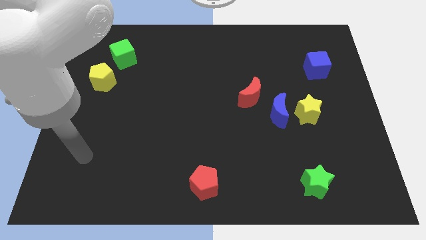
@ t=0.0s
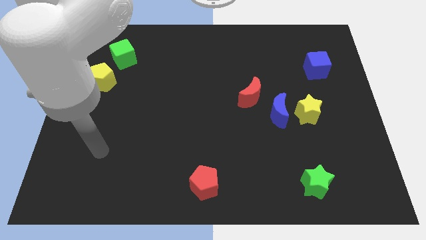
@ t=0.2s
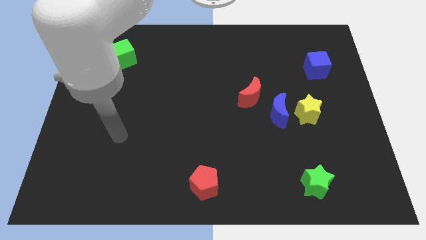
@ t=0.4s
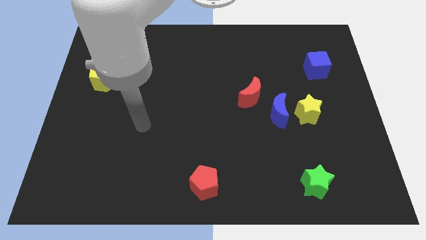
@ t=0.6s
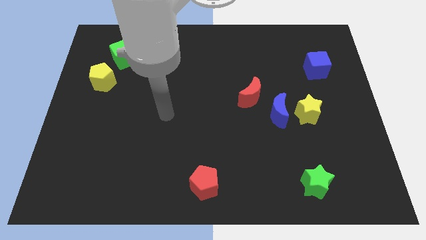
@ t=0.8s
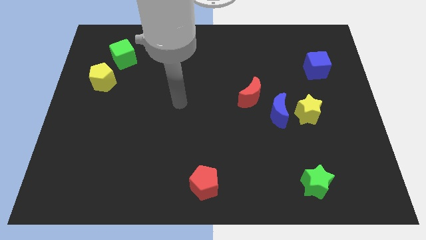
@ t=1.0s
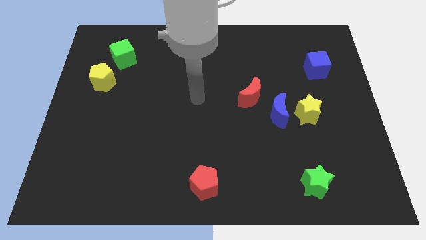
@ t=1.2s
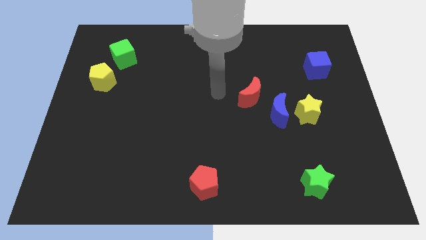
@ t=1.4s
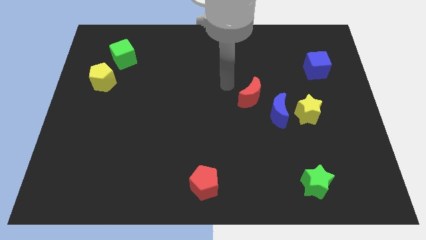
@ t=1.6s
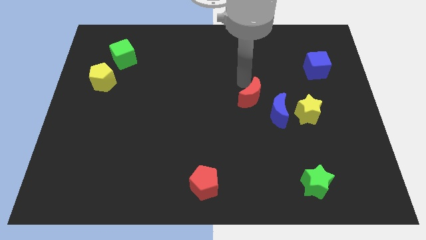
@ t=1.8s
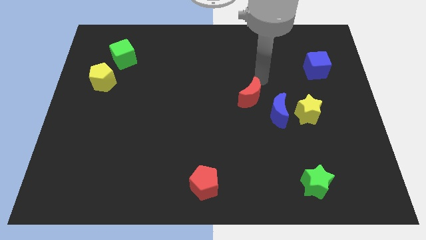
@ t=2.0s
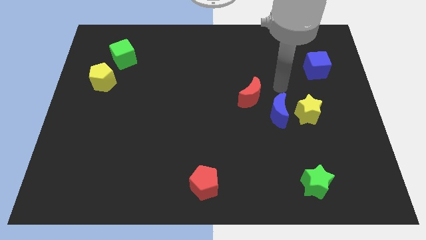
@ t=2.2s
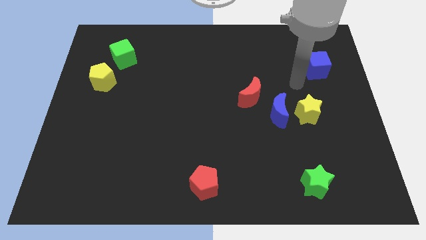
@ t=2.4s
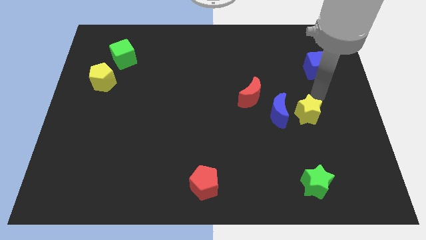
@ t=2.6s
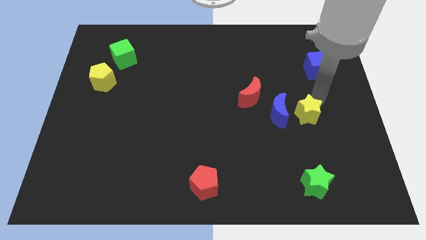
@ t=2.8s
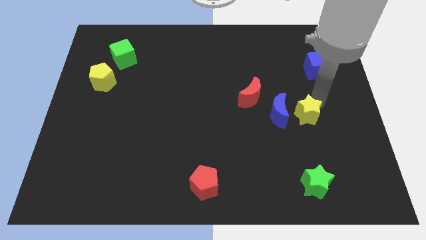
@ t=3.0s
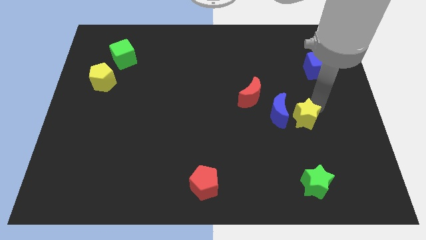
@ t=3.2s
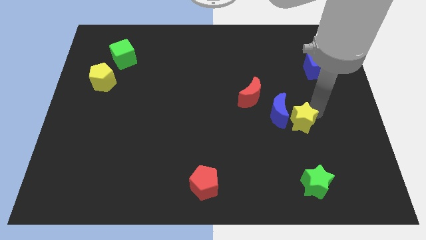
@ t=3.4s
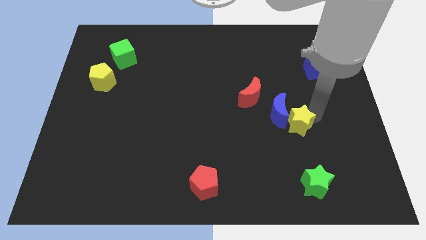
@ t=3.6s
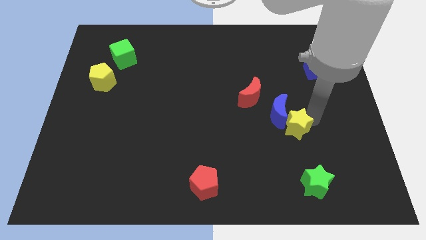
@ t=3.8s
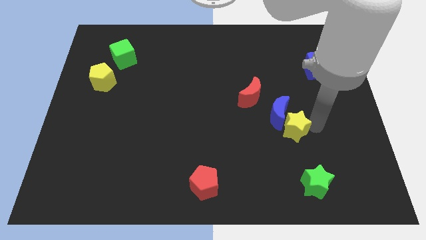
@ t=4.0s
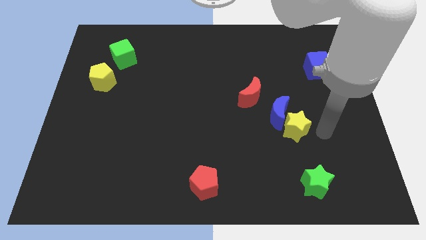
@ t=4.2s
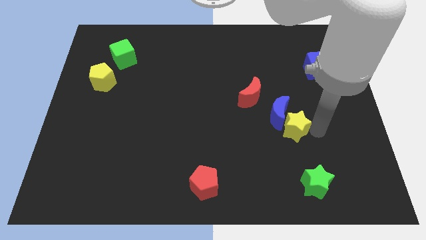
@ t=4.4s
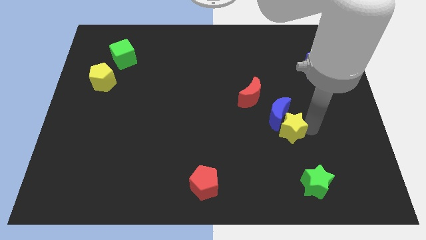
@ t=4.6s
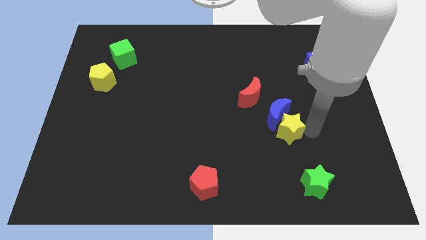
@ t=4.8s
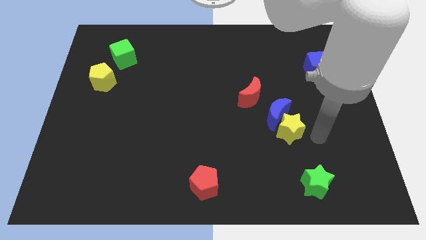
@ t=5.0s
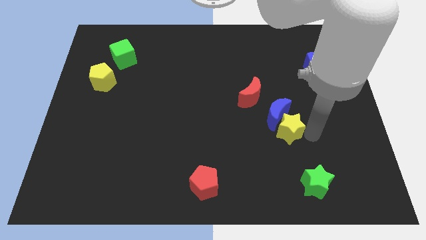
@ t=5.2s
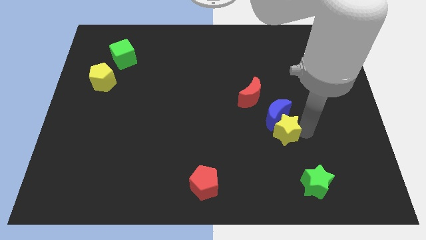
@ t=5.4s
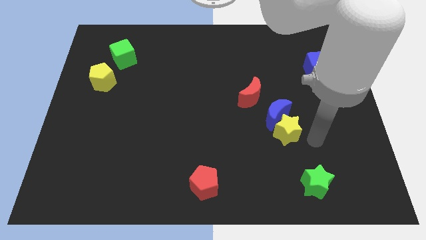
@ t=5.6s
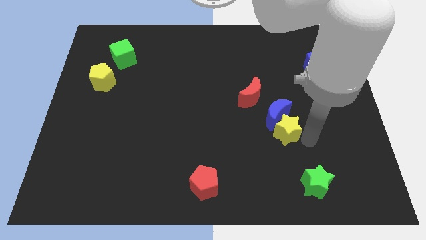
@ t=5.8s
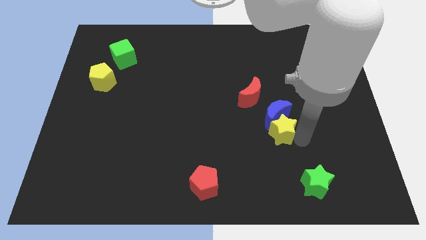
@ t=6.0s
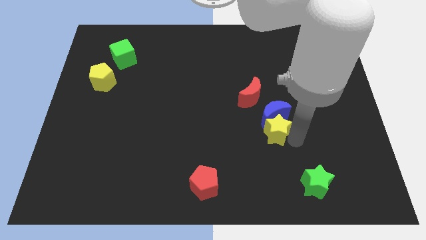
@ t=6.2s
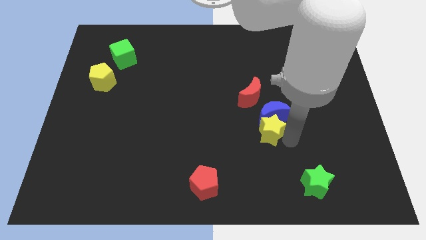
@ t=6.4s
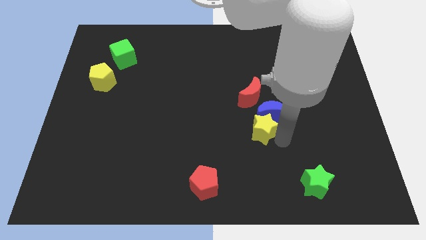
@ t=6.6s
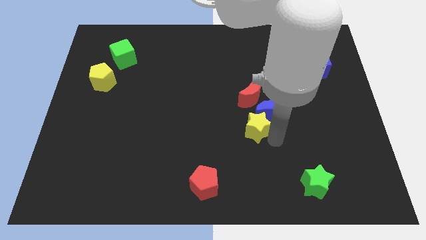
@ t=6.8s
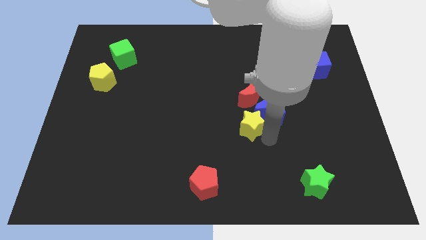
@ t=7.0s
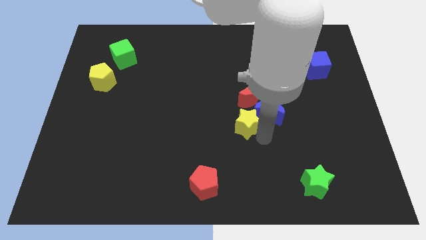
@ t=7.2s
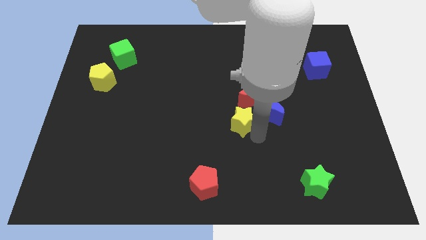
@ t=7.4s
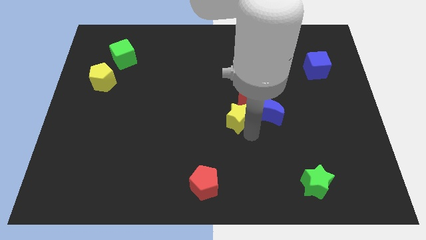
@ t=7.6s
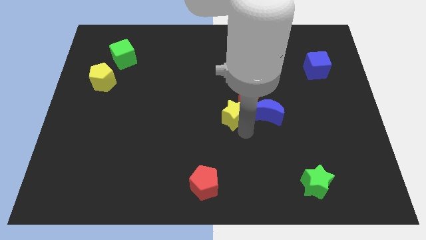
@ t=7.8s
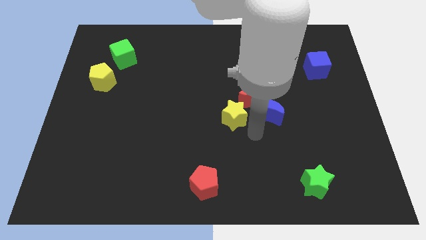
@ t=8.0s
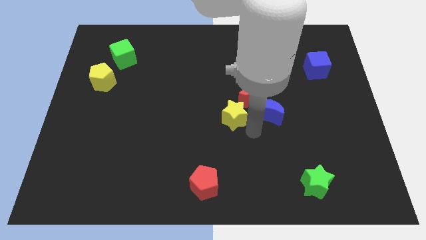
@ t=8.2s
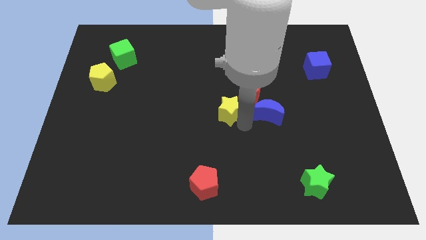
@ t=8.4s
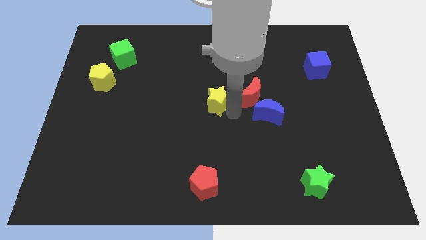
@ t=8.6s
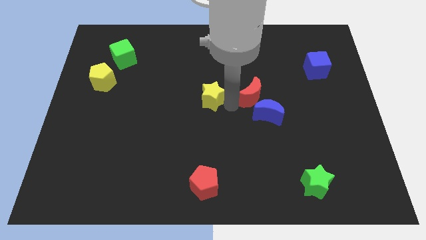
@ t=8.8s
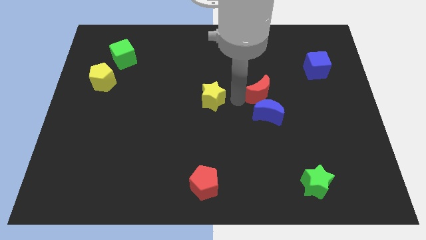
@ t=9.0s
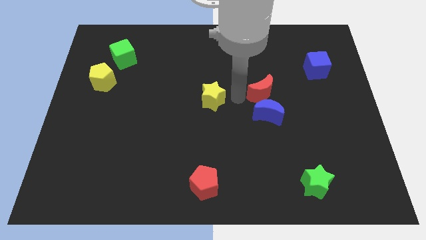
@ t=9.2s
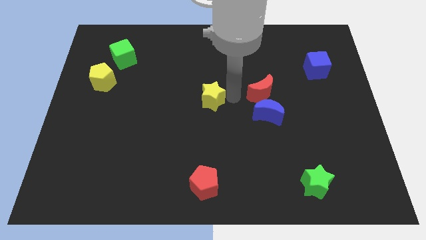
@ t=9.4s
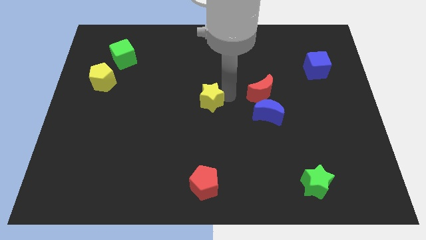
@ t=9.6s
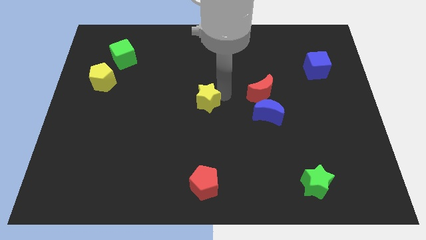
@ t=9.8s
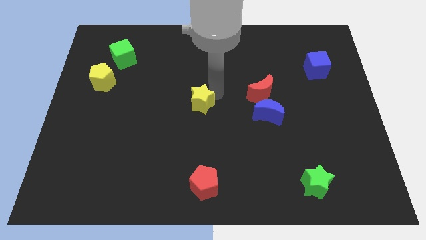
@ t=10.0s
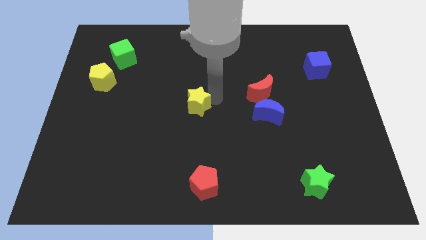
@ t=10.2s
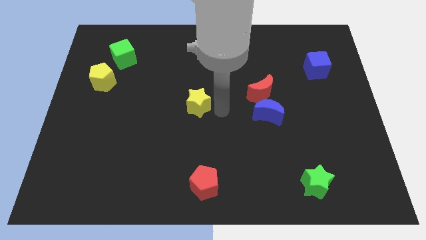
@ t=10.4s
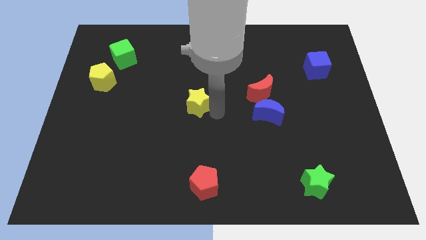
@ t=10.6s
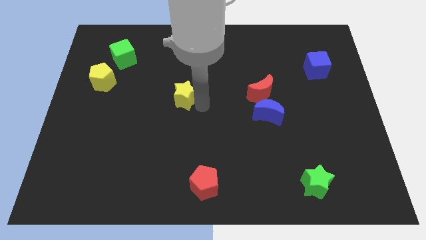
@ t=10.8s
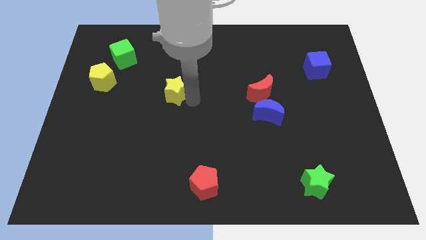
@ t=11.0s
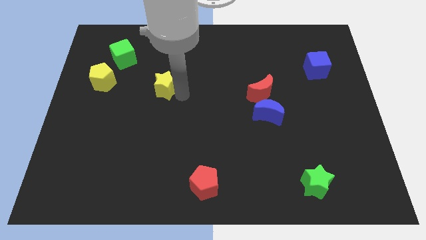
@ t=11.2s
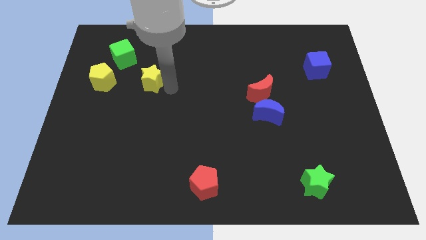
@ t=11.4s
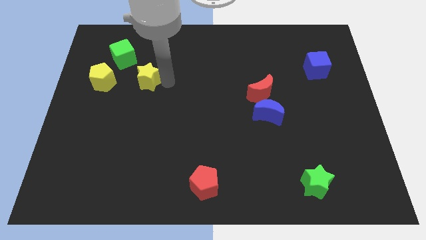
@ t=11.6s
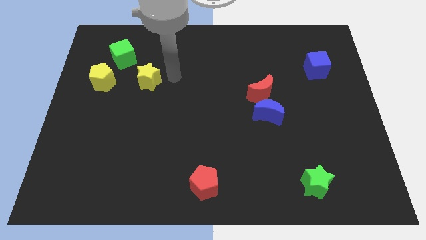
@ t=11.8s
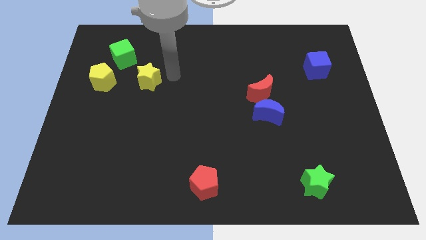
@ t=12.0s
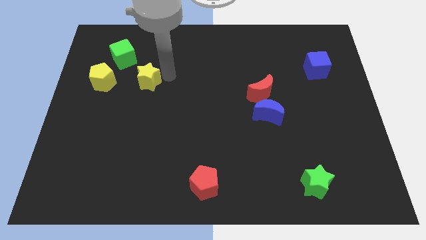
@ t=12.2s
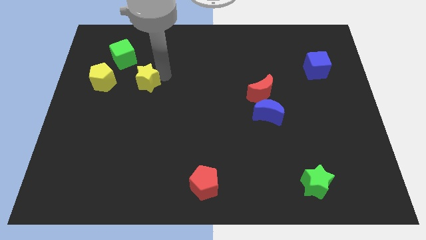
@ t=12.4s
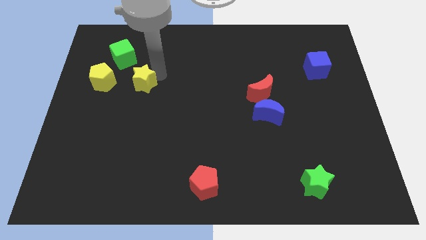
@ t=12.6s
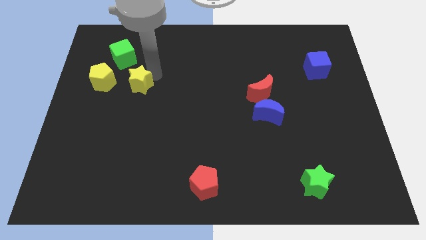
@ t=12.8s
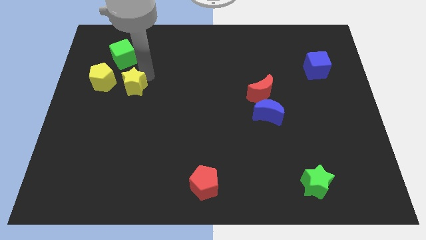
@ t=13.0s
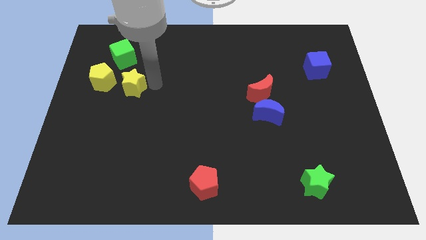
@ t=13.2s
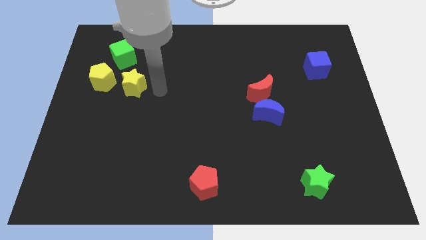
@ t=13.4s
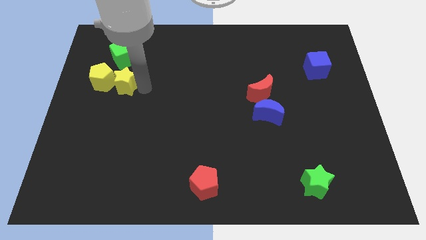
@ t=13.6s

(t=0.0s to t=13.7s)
slide the yellow star to the yellow pentagon

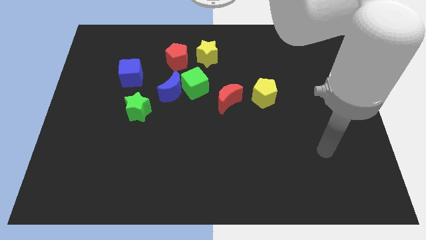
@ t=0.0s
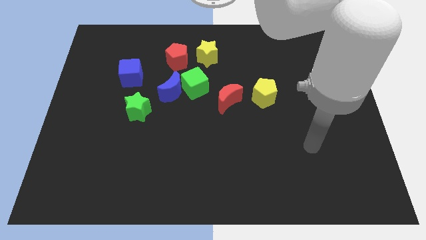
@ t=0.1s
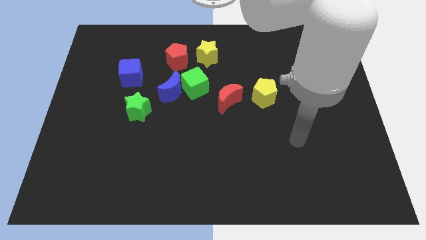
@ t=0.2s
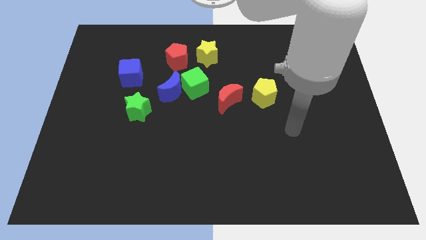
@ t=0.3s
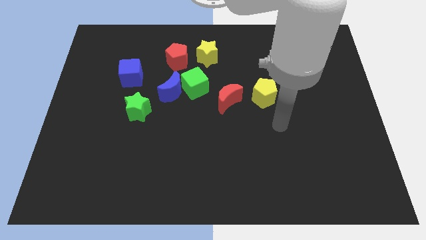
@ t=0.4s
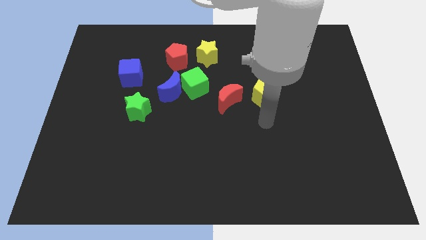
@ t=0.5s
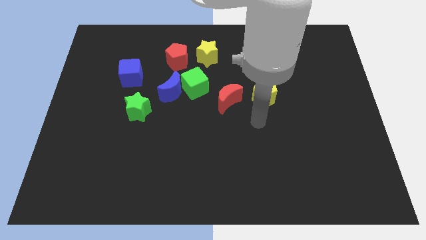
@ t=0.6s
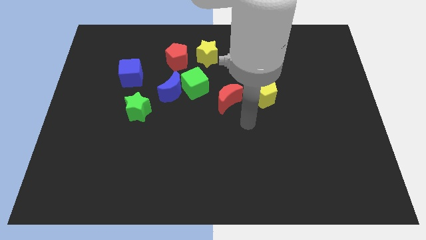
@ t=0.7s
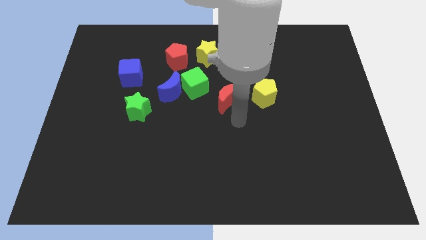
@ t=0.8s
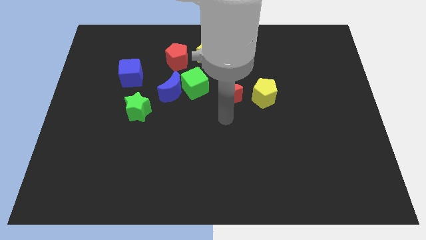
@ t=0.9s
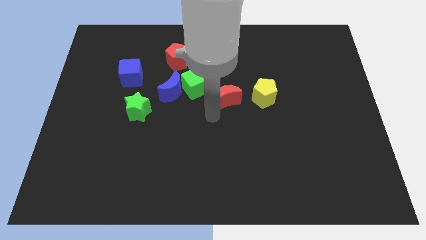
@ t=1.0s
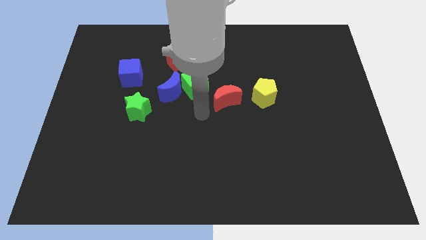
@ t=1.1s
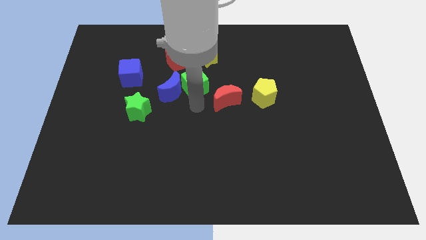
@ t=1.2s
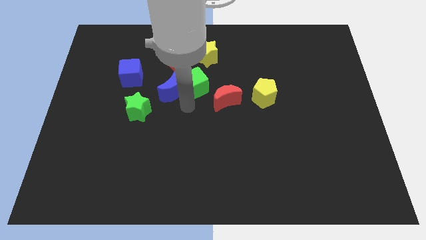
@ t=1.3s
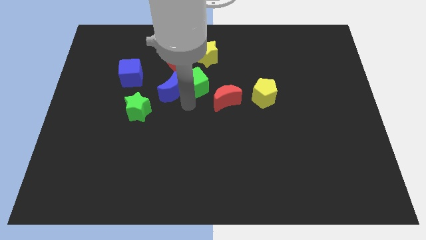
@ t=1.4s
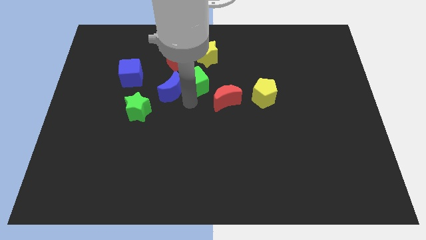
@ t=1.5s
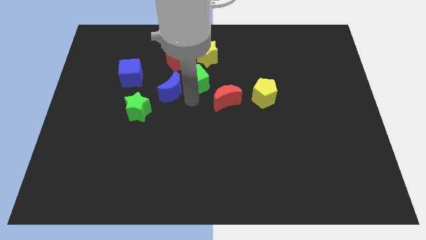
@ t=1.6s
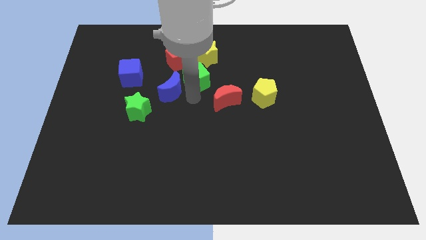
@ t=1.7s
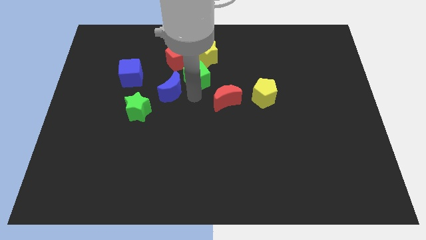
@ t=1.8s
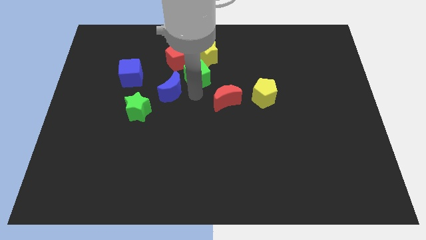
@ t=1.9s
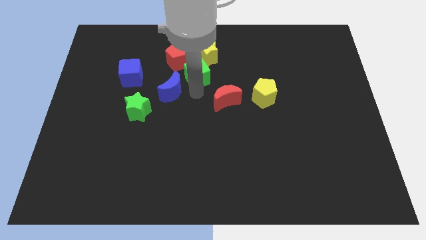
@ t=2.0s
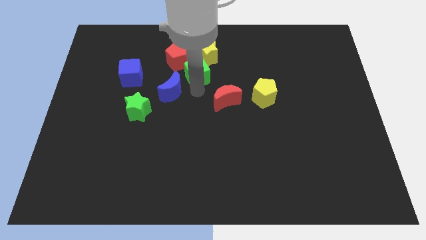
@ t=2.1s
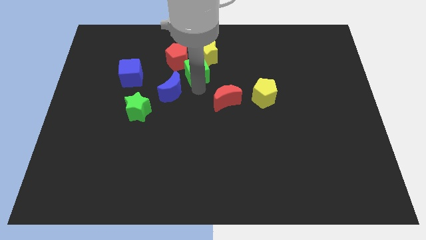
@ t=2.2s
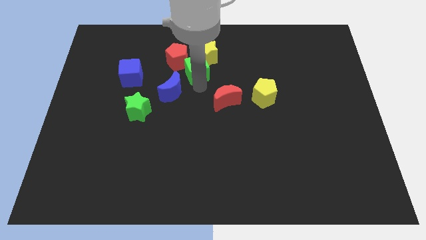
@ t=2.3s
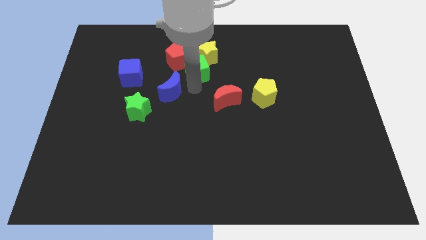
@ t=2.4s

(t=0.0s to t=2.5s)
put the green cube next to the yellow star
